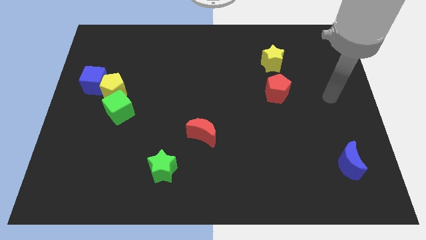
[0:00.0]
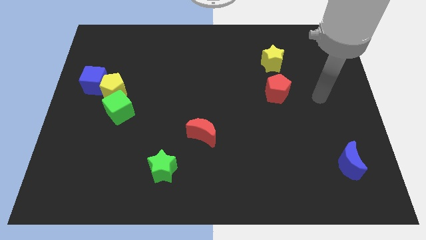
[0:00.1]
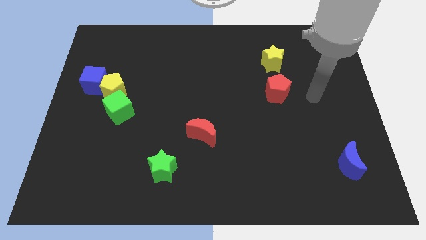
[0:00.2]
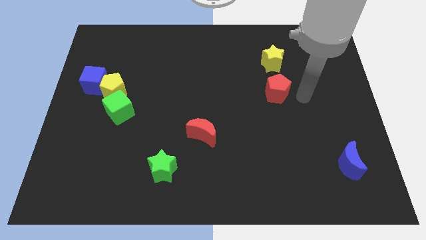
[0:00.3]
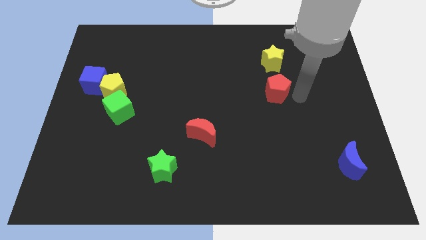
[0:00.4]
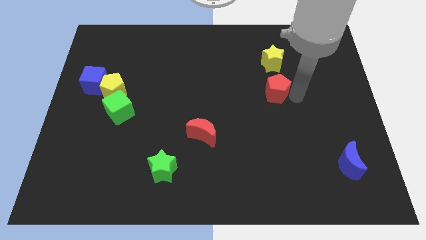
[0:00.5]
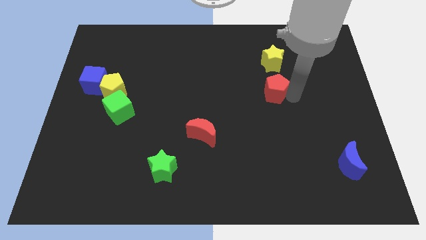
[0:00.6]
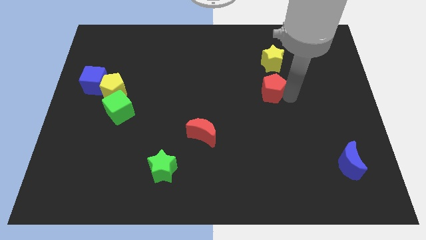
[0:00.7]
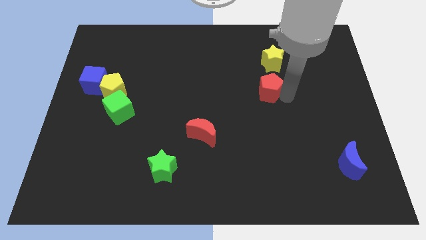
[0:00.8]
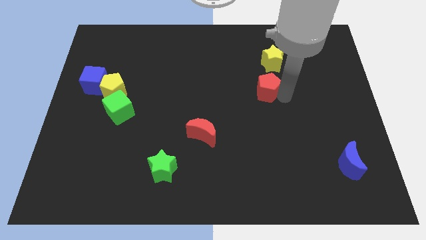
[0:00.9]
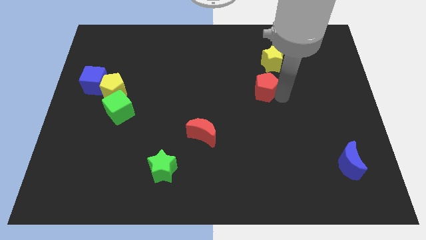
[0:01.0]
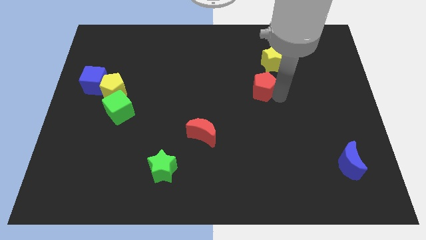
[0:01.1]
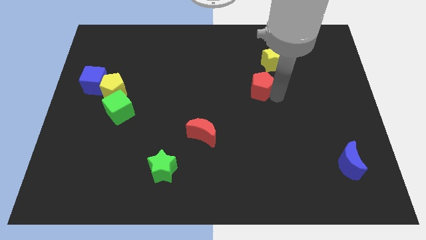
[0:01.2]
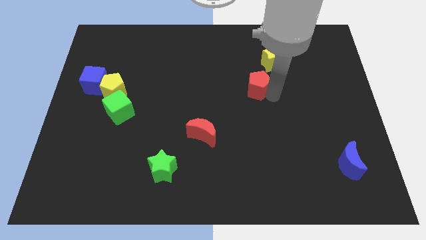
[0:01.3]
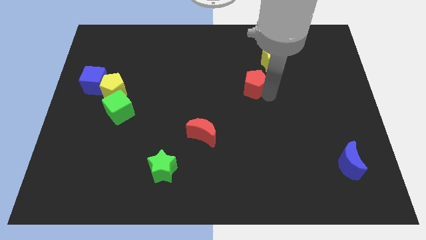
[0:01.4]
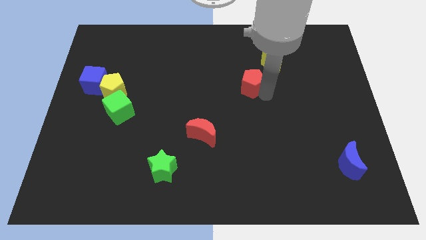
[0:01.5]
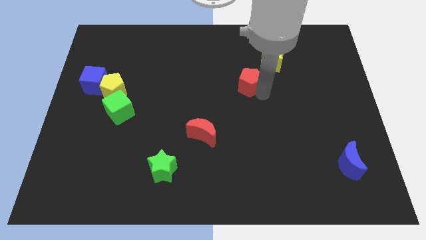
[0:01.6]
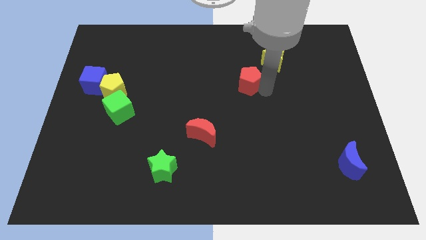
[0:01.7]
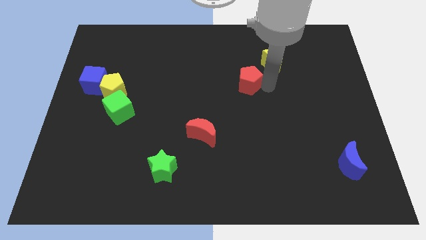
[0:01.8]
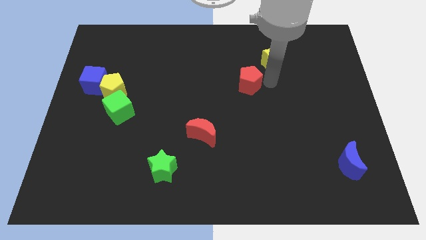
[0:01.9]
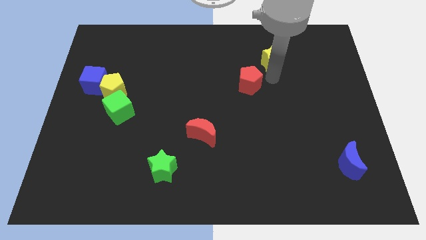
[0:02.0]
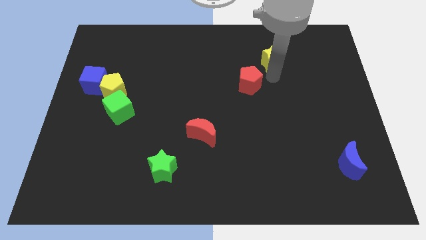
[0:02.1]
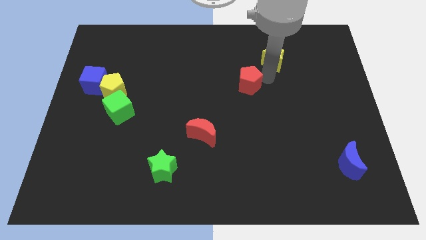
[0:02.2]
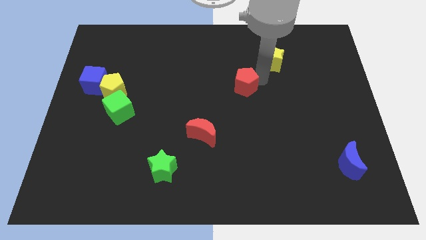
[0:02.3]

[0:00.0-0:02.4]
slightly push the red pentagon to the left

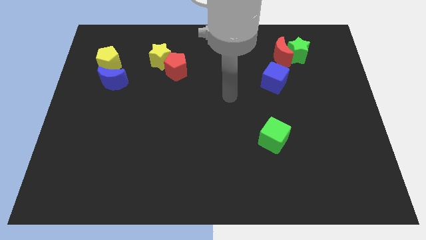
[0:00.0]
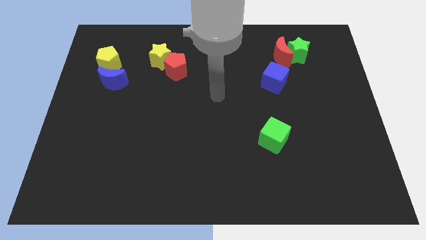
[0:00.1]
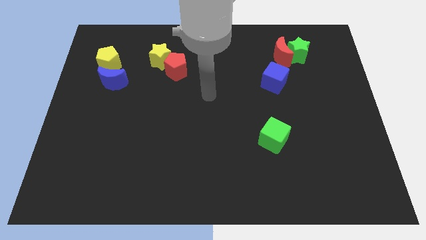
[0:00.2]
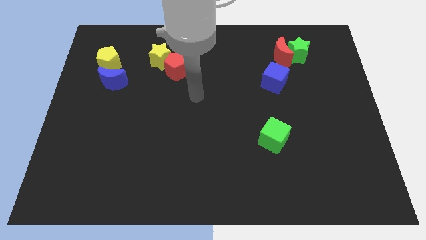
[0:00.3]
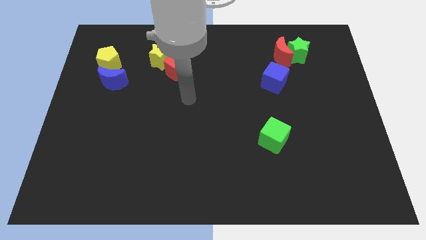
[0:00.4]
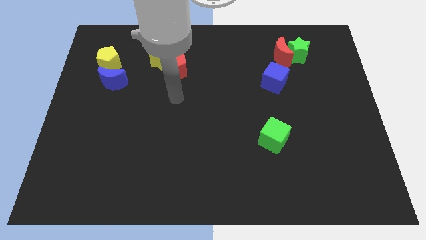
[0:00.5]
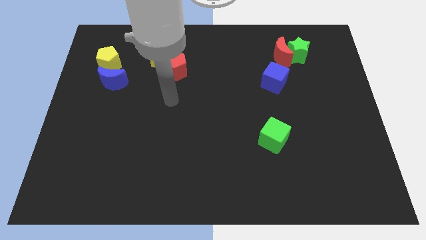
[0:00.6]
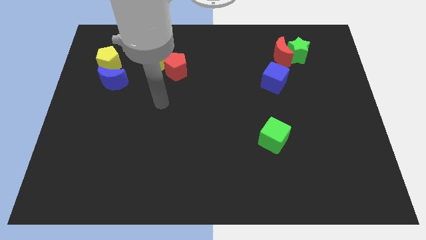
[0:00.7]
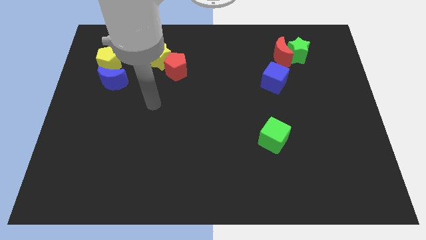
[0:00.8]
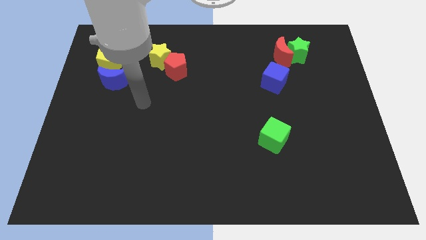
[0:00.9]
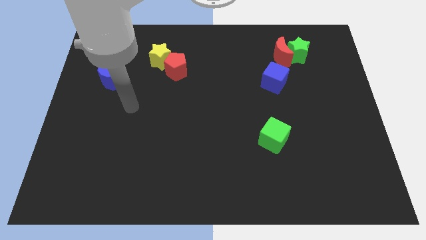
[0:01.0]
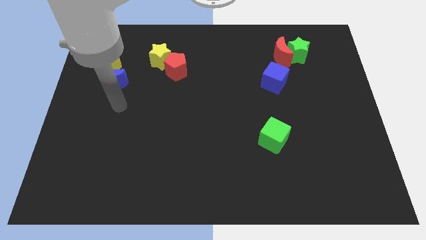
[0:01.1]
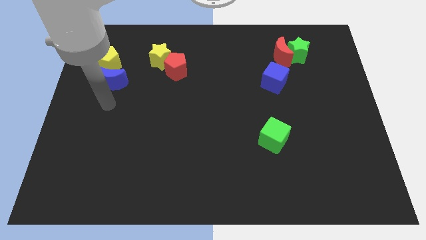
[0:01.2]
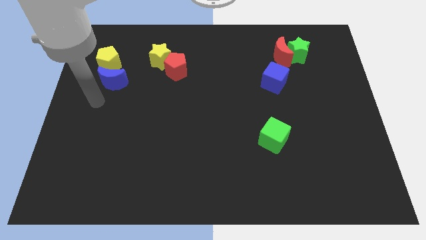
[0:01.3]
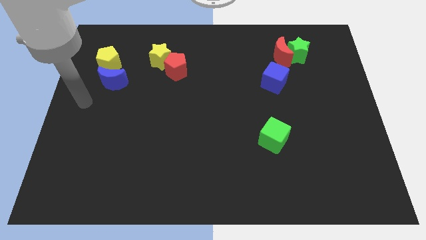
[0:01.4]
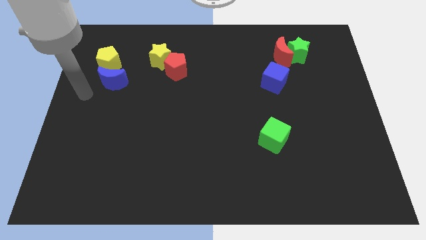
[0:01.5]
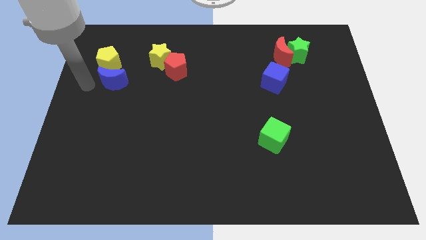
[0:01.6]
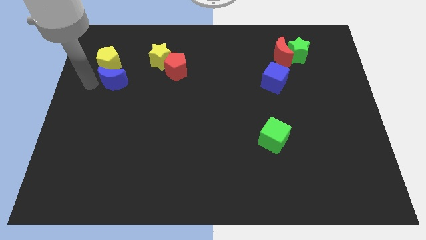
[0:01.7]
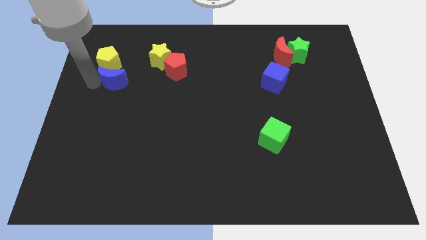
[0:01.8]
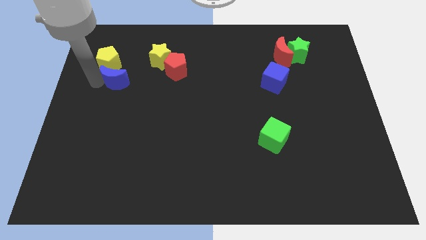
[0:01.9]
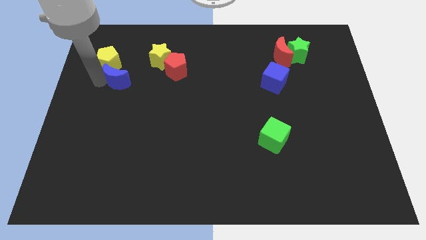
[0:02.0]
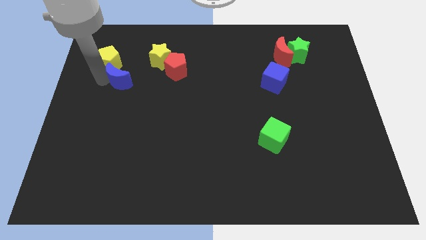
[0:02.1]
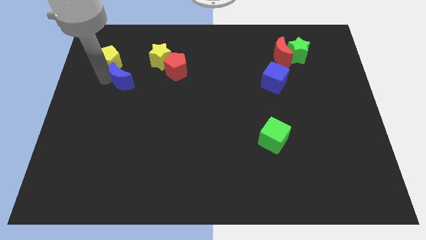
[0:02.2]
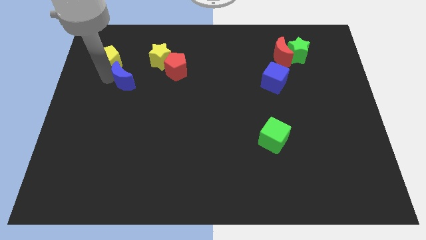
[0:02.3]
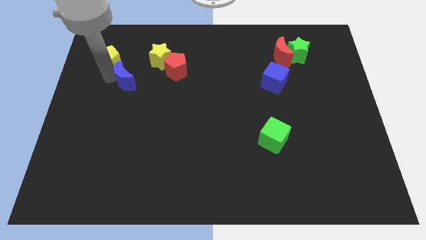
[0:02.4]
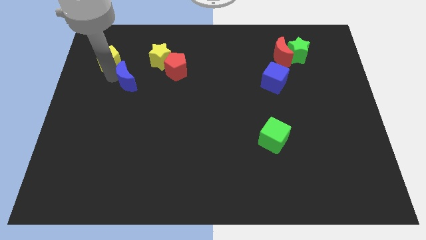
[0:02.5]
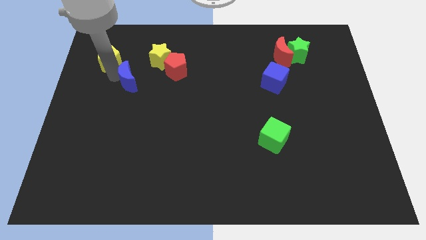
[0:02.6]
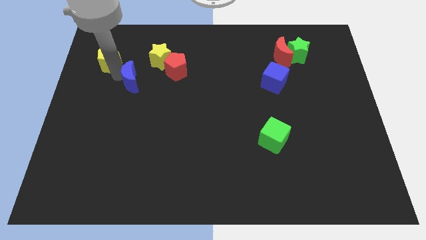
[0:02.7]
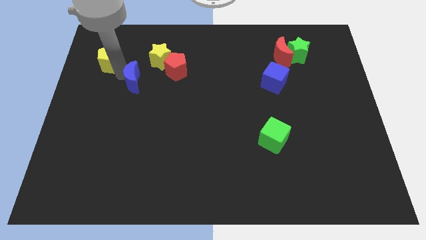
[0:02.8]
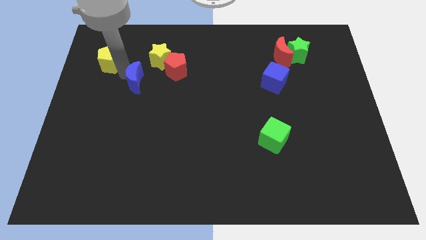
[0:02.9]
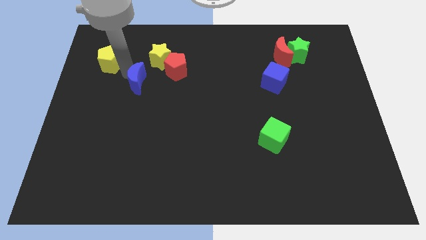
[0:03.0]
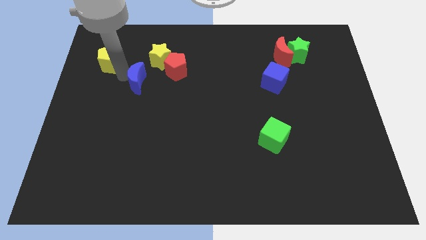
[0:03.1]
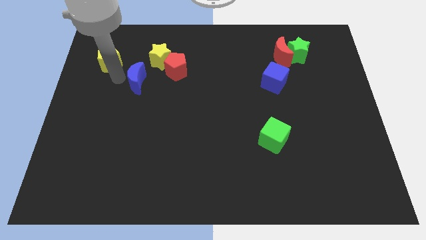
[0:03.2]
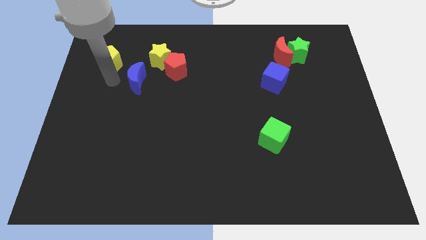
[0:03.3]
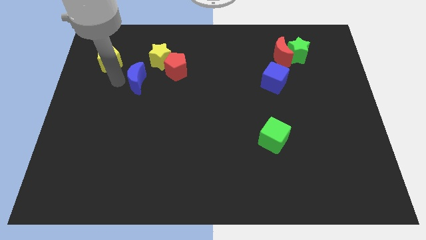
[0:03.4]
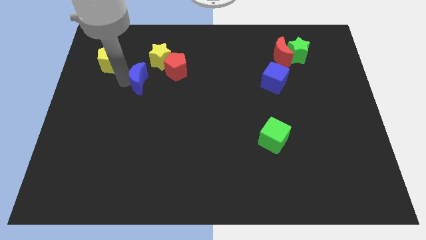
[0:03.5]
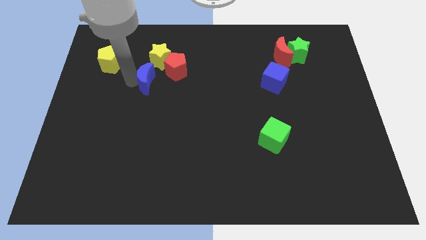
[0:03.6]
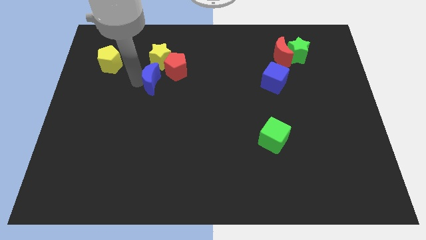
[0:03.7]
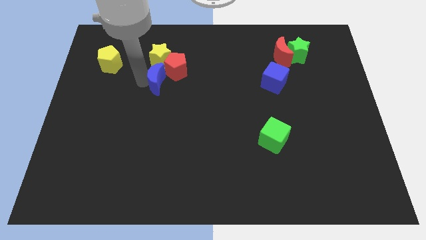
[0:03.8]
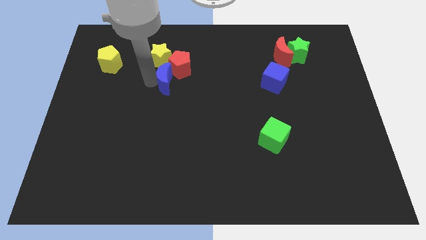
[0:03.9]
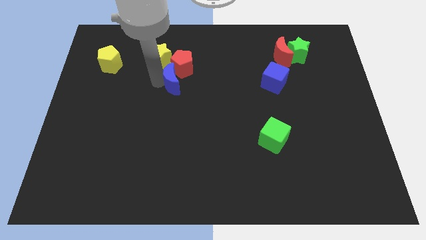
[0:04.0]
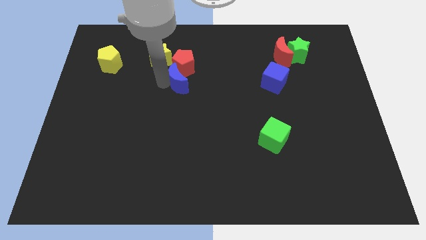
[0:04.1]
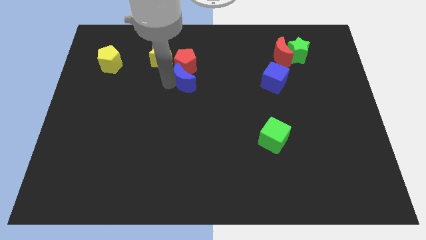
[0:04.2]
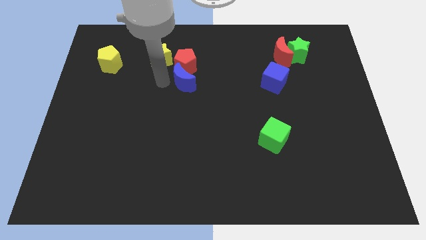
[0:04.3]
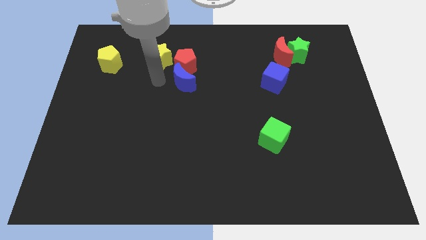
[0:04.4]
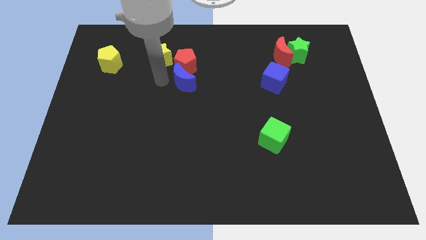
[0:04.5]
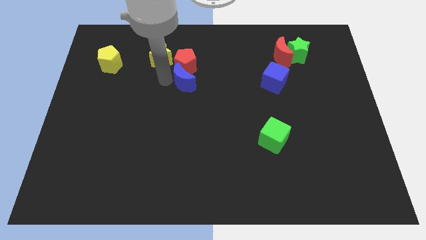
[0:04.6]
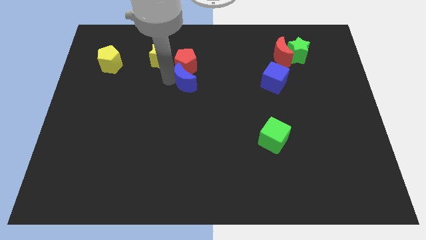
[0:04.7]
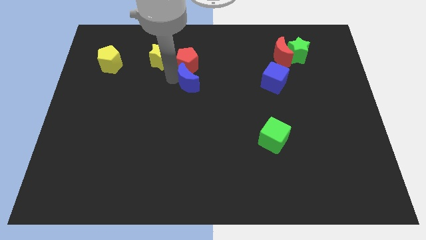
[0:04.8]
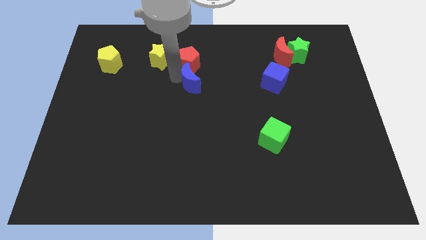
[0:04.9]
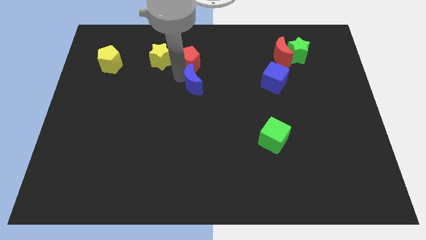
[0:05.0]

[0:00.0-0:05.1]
slide the blue moon right

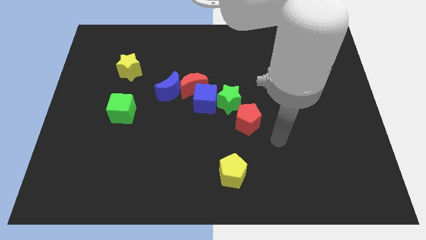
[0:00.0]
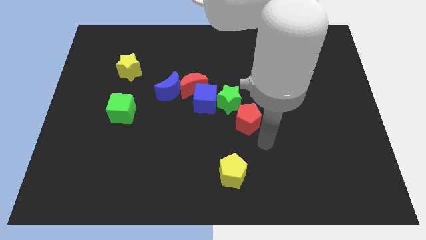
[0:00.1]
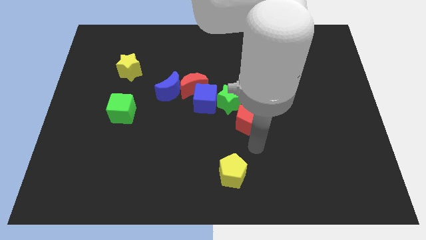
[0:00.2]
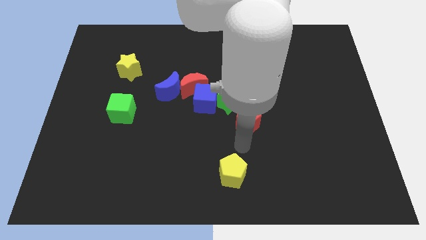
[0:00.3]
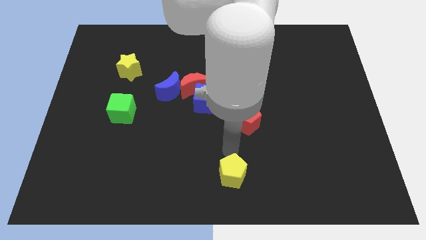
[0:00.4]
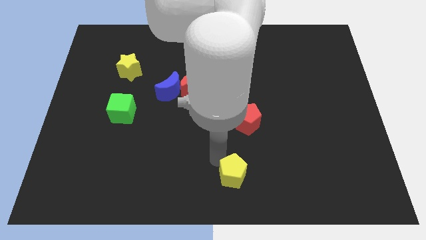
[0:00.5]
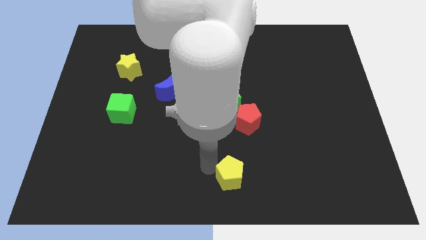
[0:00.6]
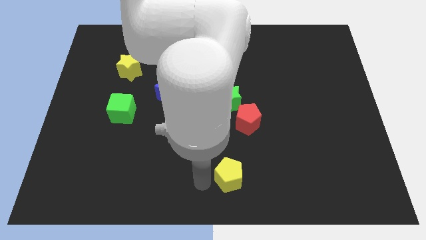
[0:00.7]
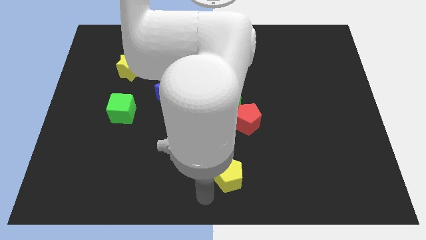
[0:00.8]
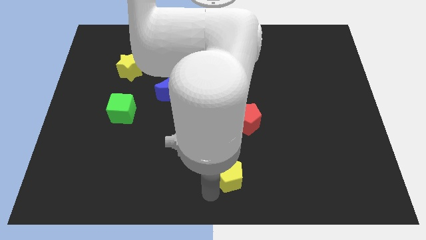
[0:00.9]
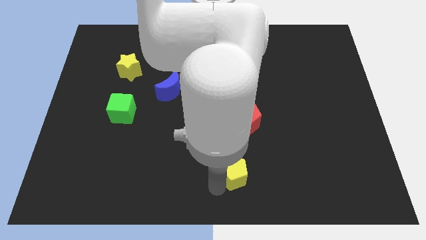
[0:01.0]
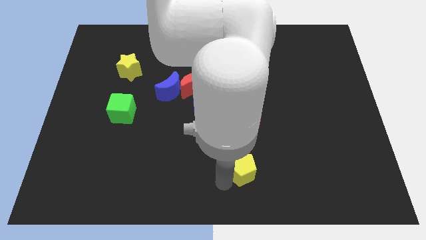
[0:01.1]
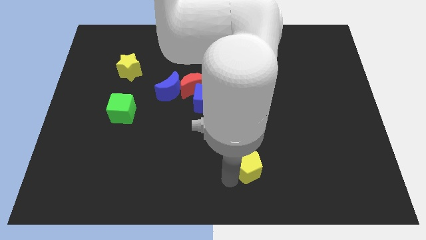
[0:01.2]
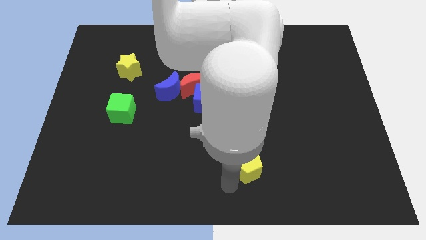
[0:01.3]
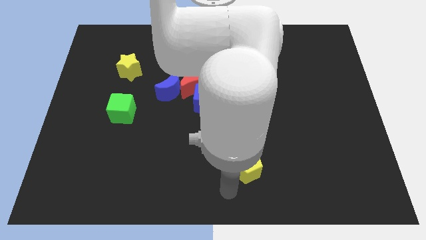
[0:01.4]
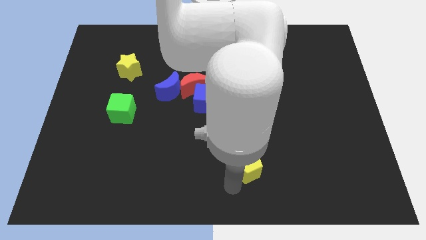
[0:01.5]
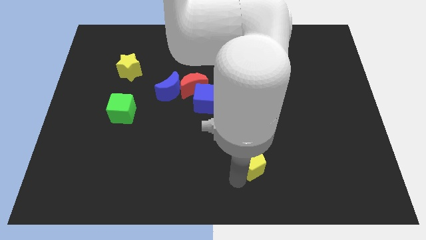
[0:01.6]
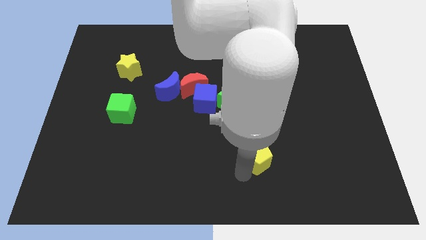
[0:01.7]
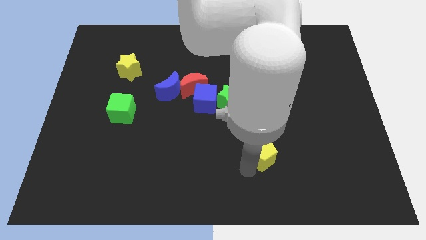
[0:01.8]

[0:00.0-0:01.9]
slightly move the yellow pentagon up and to the right
